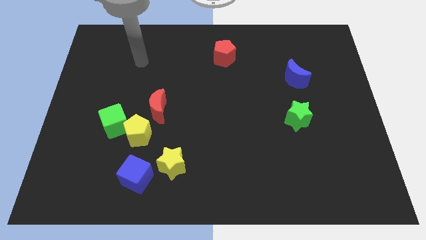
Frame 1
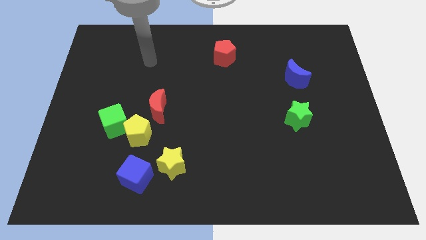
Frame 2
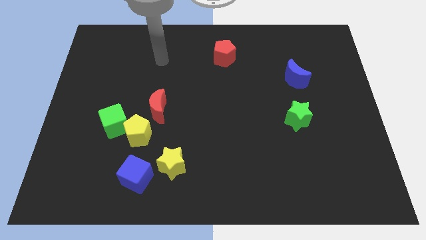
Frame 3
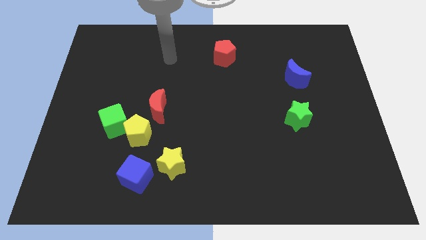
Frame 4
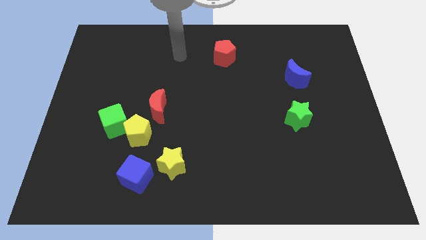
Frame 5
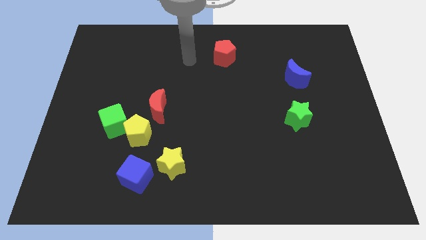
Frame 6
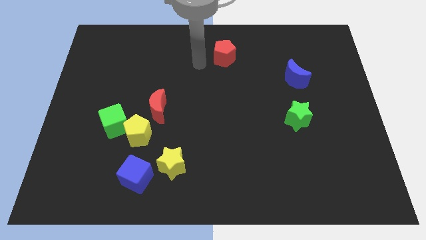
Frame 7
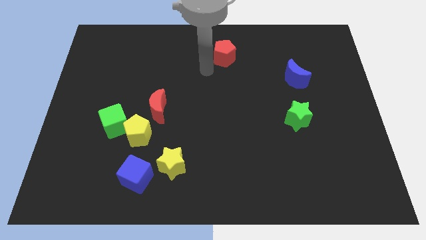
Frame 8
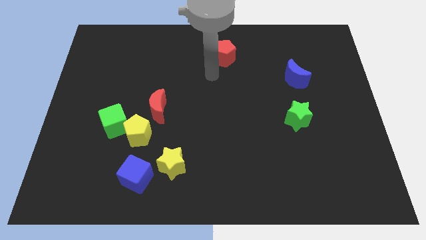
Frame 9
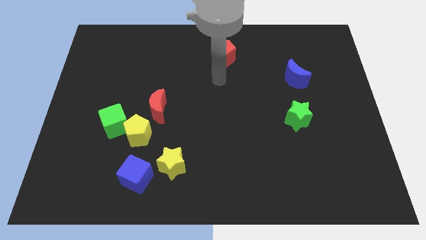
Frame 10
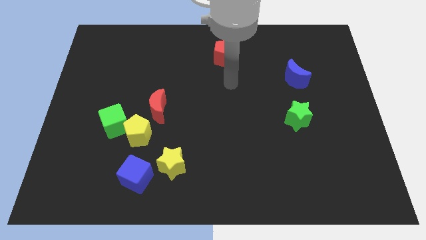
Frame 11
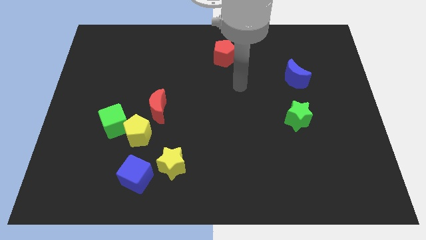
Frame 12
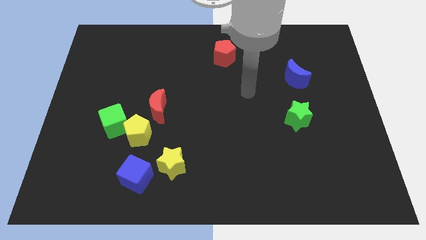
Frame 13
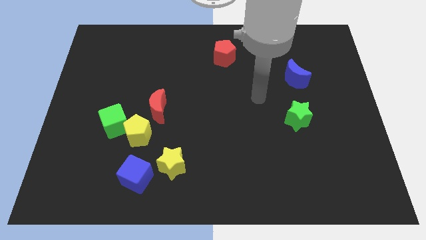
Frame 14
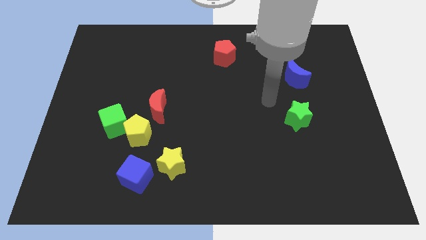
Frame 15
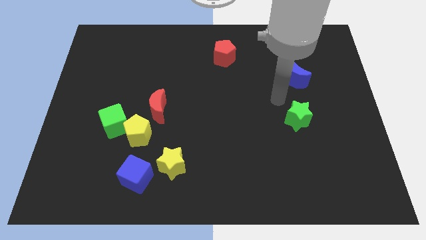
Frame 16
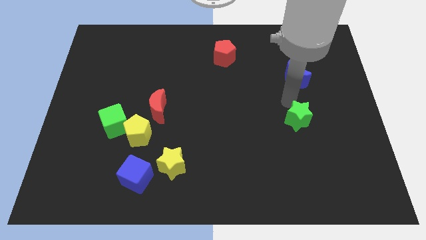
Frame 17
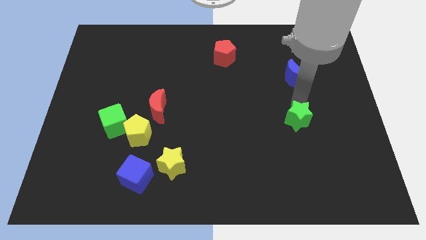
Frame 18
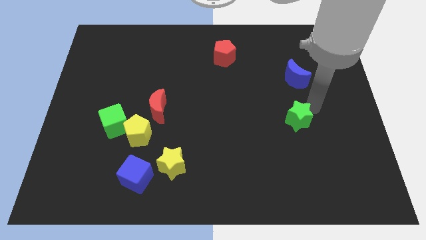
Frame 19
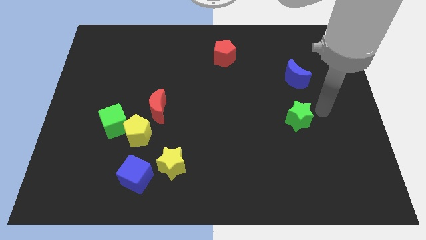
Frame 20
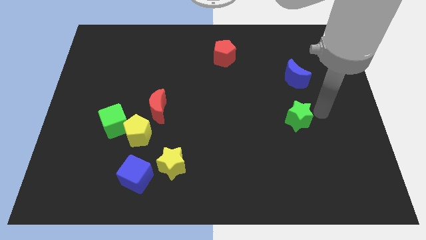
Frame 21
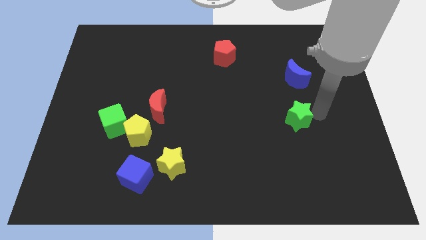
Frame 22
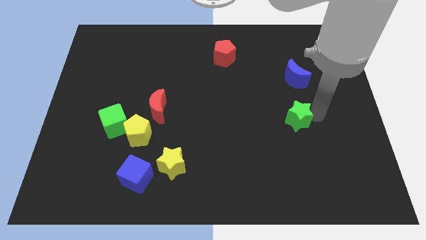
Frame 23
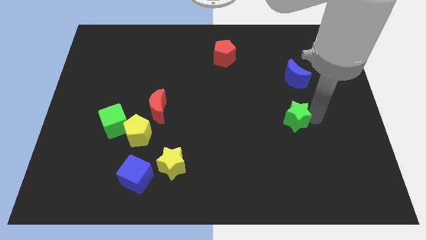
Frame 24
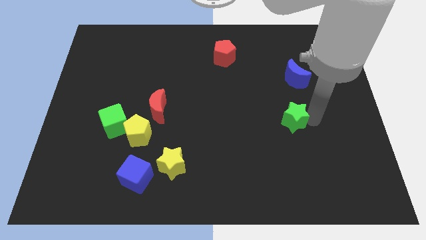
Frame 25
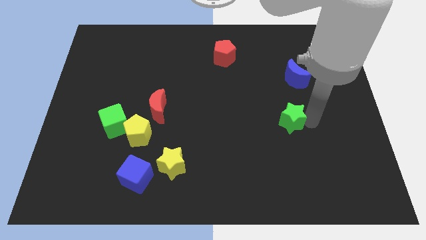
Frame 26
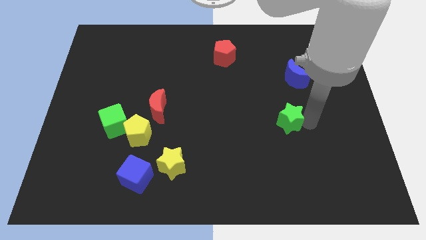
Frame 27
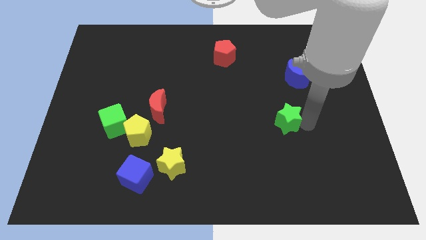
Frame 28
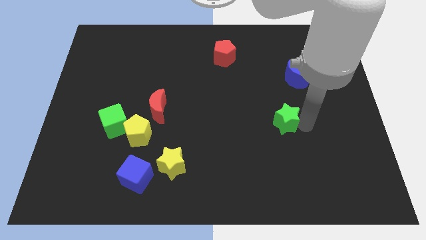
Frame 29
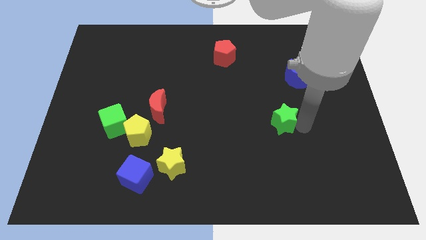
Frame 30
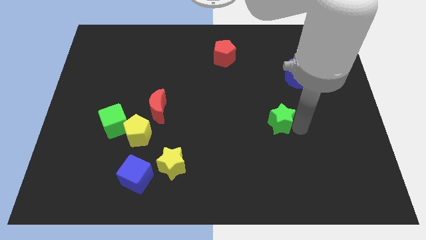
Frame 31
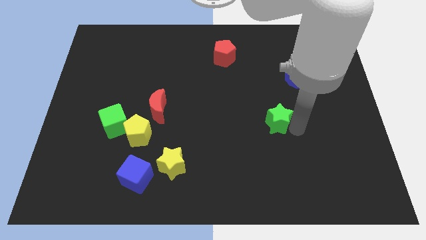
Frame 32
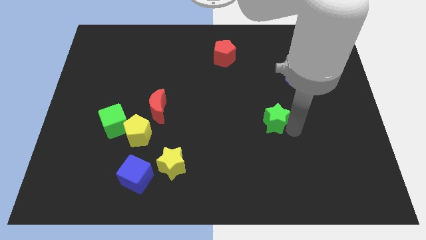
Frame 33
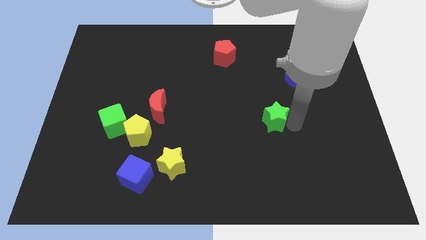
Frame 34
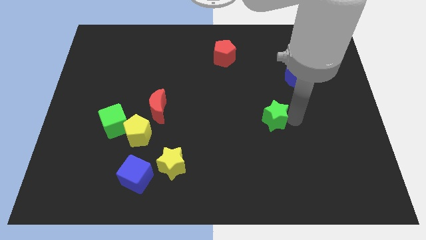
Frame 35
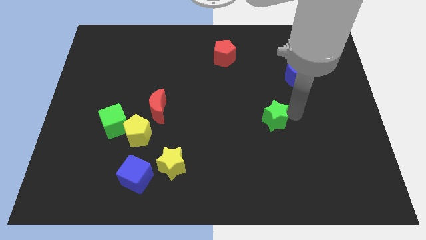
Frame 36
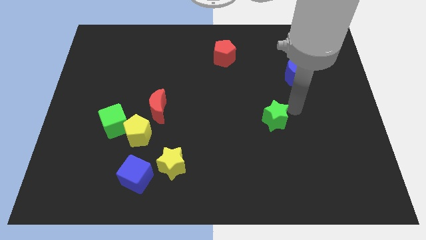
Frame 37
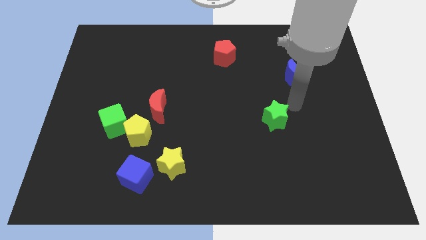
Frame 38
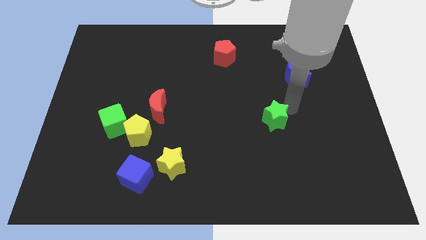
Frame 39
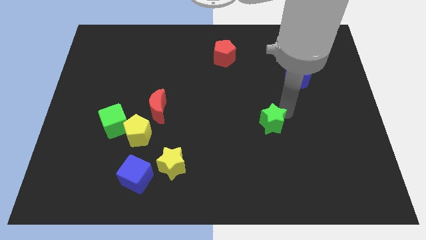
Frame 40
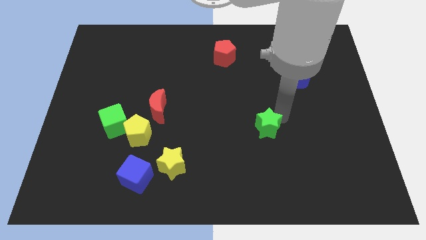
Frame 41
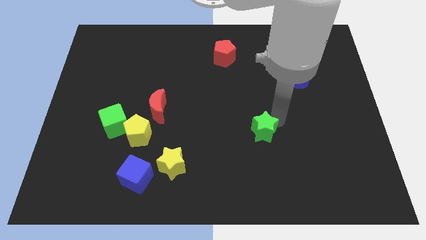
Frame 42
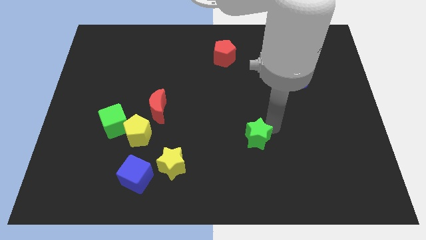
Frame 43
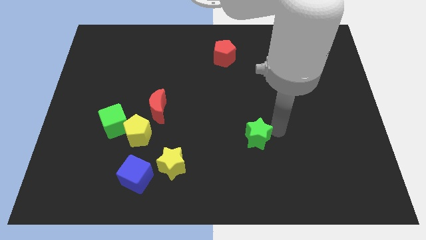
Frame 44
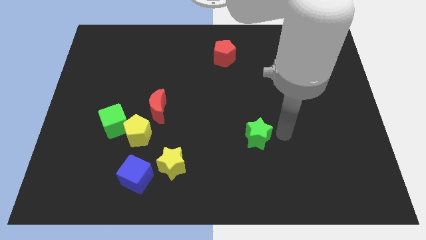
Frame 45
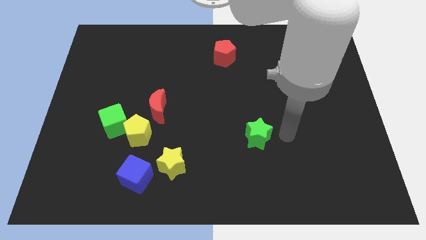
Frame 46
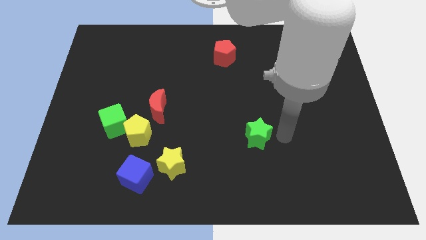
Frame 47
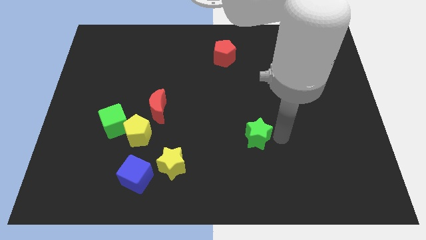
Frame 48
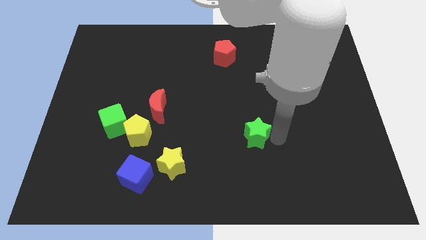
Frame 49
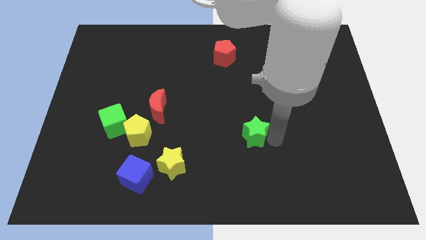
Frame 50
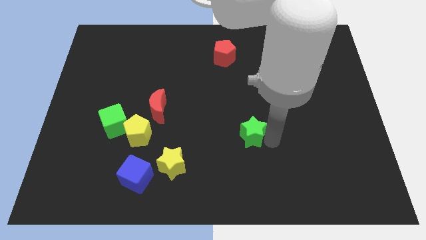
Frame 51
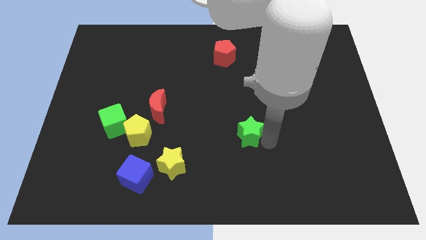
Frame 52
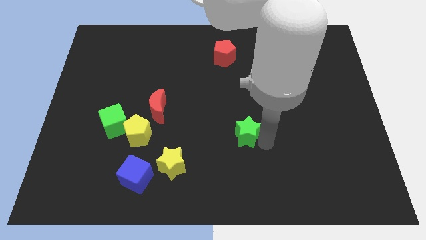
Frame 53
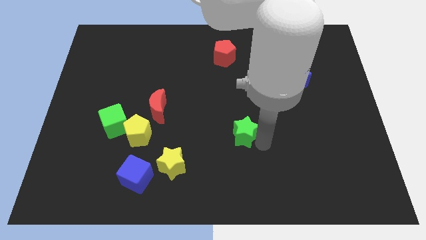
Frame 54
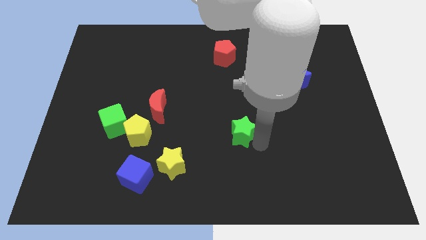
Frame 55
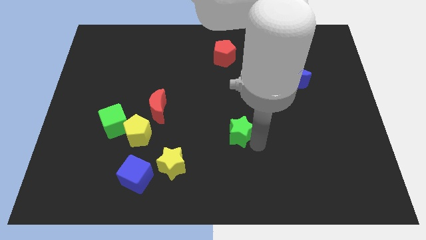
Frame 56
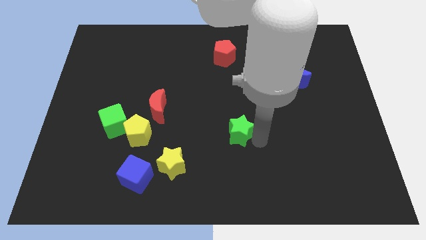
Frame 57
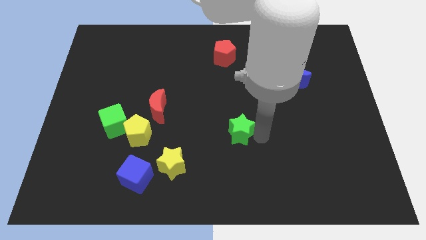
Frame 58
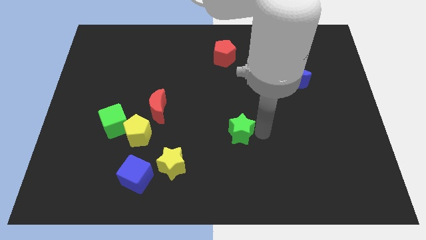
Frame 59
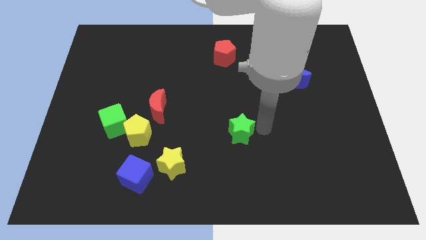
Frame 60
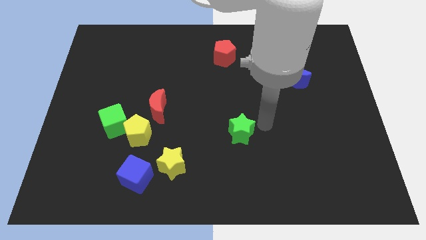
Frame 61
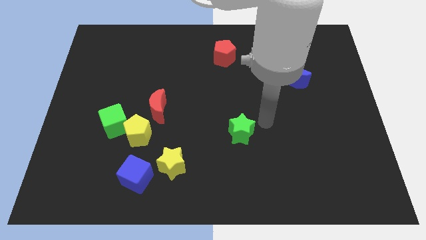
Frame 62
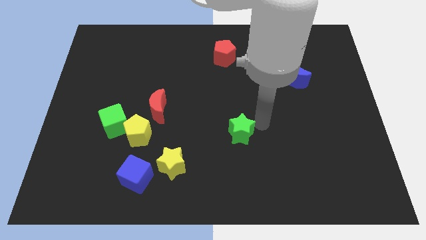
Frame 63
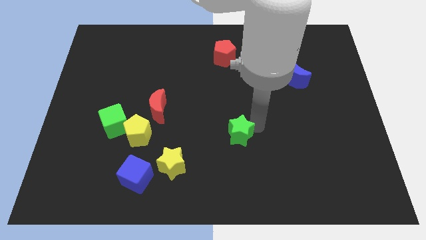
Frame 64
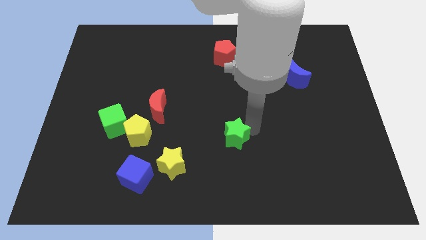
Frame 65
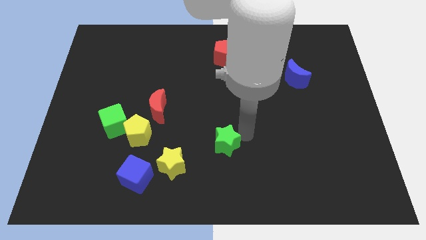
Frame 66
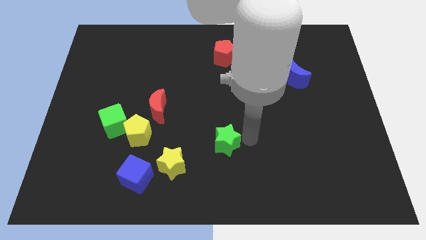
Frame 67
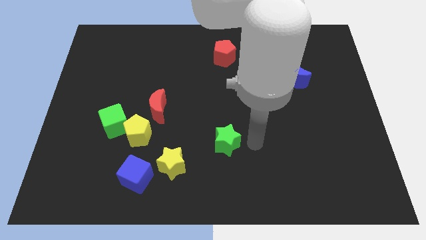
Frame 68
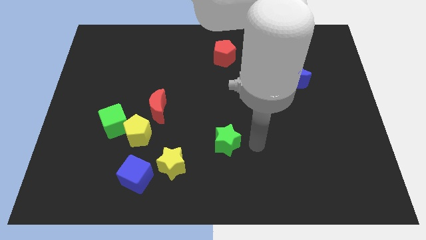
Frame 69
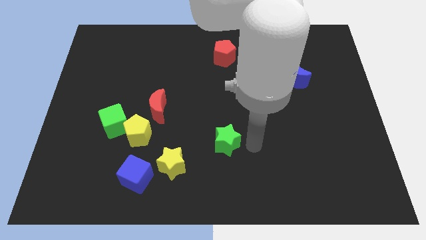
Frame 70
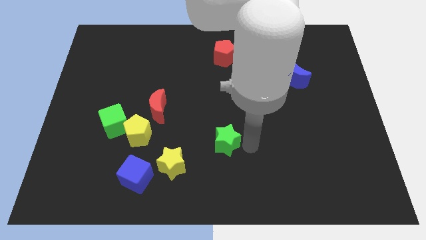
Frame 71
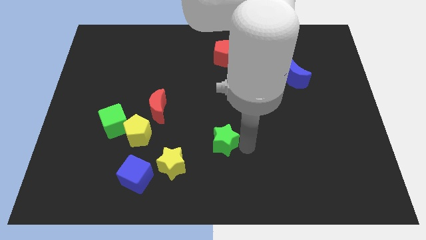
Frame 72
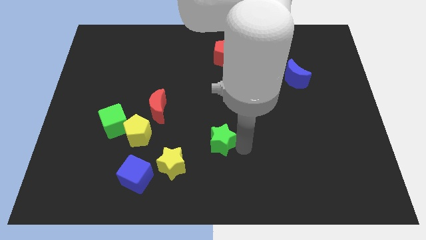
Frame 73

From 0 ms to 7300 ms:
slide the green star to the top right of the yellow star

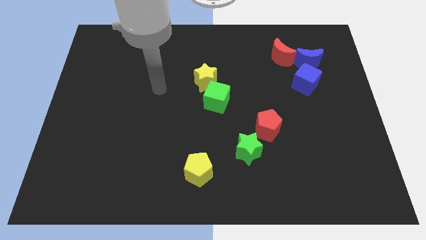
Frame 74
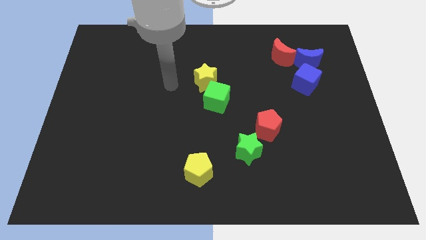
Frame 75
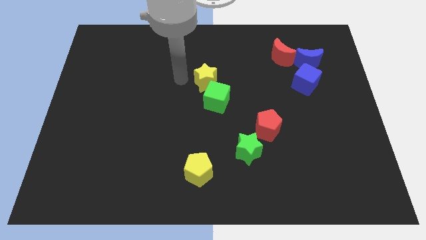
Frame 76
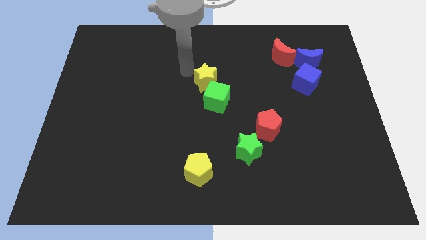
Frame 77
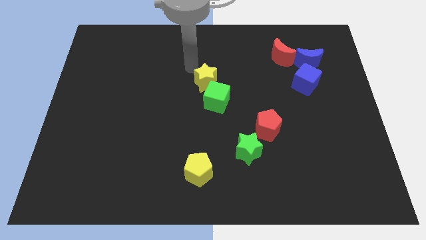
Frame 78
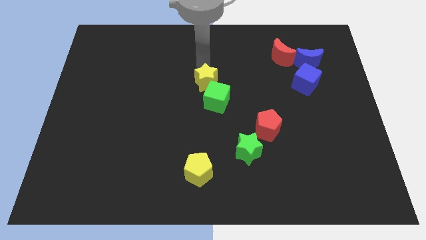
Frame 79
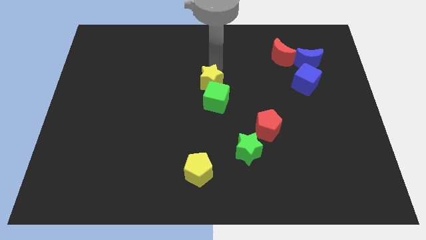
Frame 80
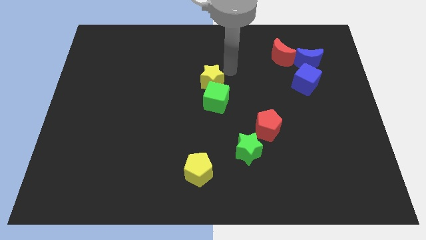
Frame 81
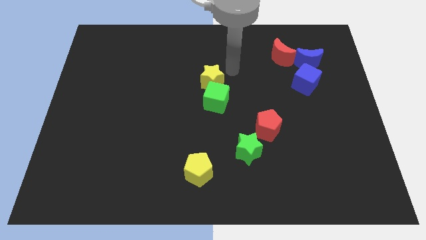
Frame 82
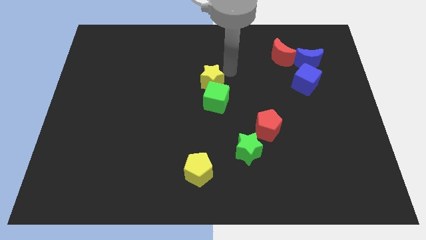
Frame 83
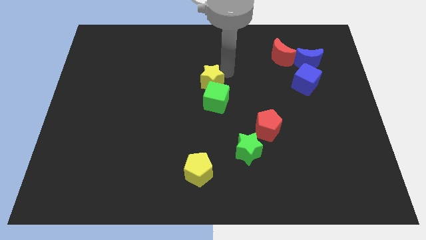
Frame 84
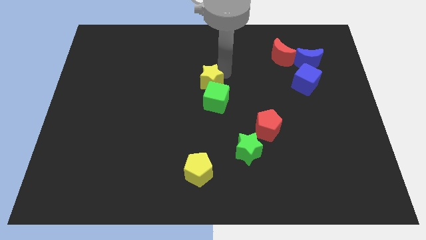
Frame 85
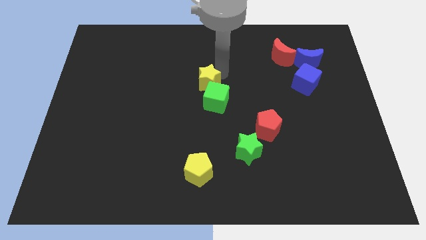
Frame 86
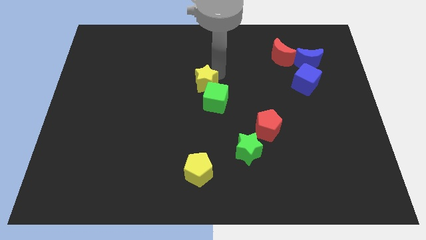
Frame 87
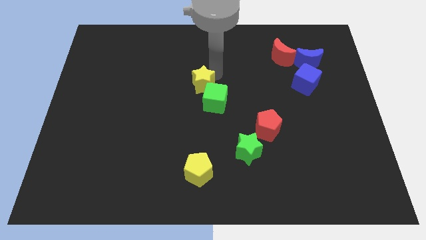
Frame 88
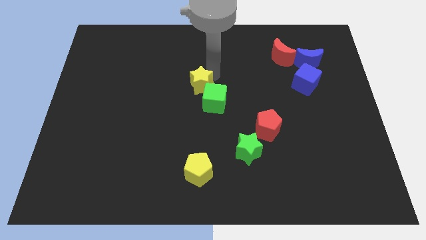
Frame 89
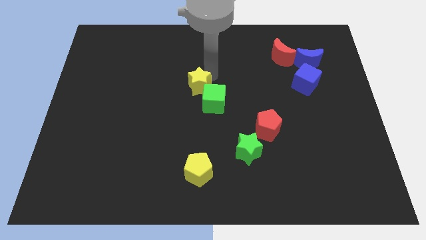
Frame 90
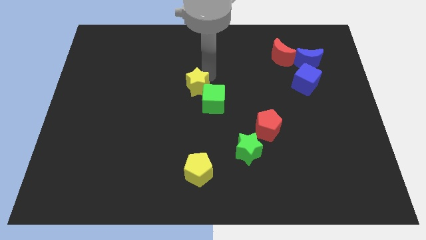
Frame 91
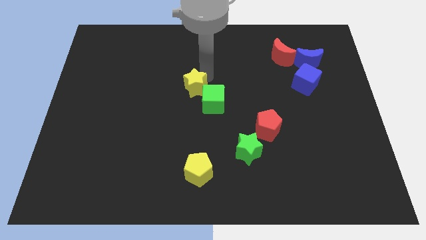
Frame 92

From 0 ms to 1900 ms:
put the yellow star left of the green cube
